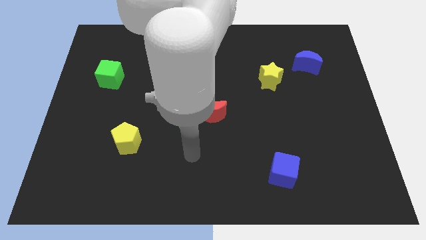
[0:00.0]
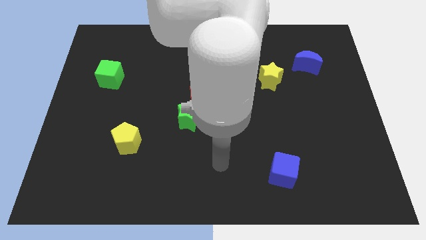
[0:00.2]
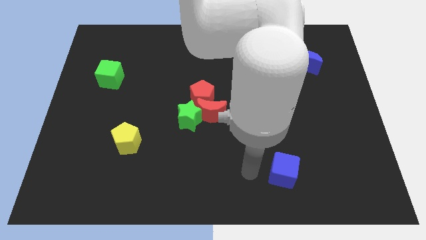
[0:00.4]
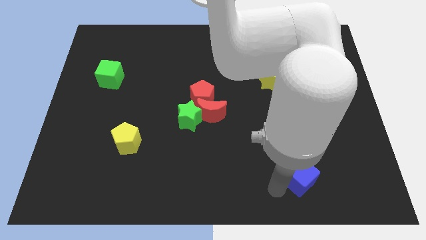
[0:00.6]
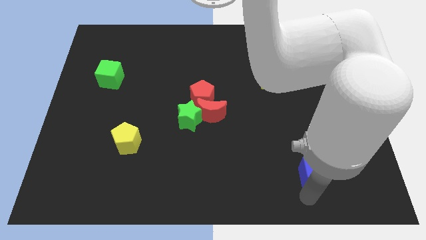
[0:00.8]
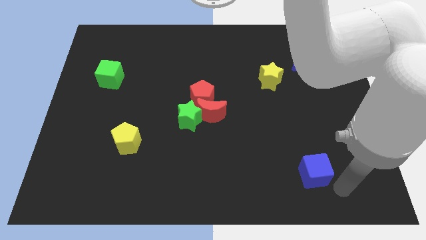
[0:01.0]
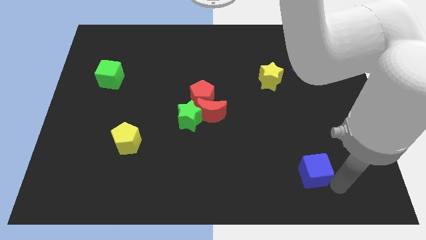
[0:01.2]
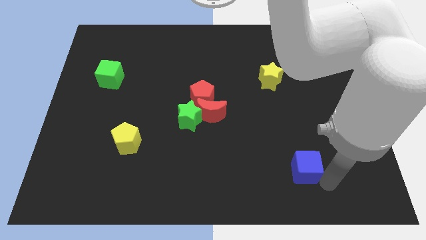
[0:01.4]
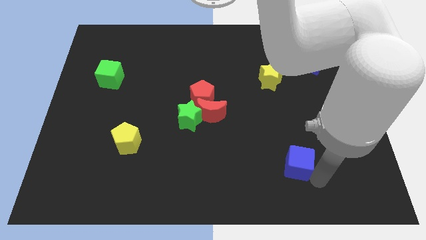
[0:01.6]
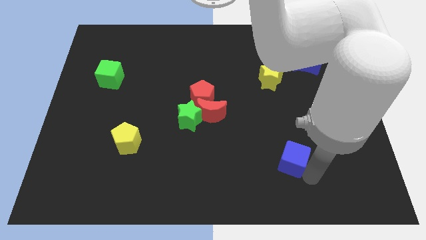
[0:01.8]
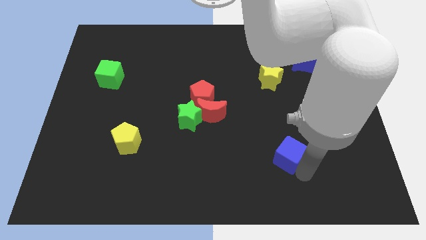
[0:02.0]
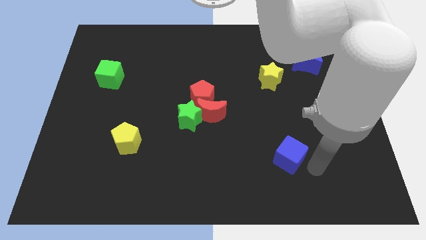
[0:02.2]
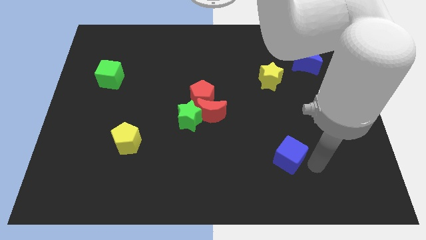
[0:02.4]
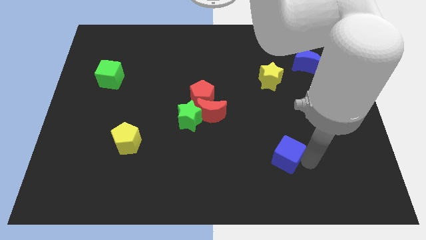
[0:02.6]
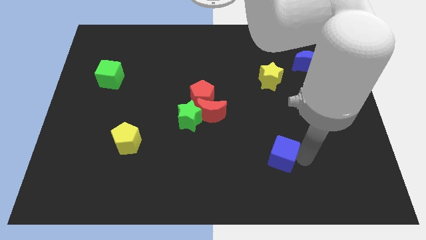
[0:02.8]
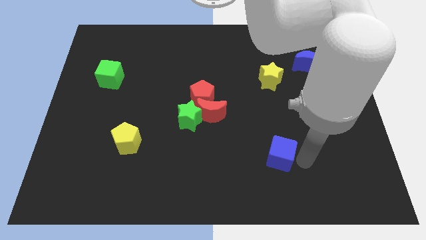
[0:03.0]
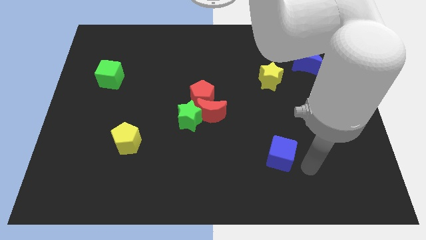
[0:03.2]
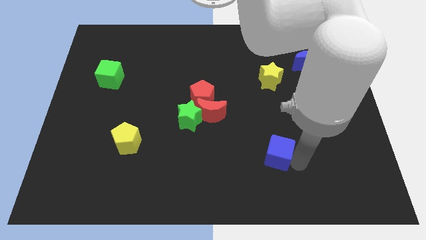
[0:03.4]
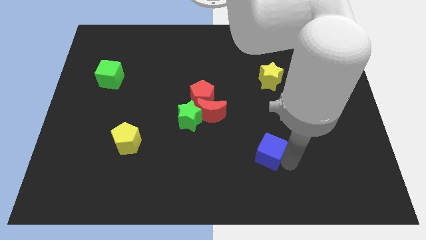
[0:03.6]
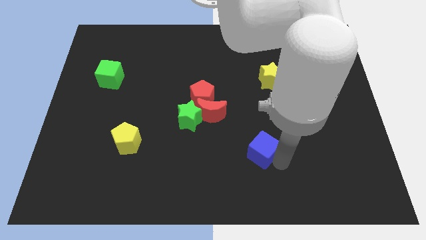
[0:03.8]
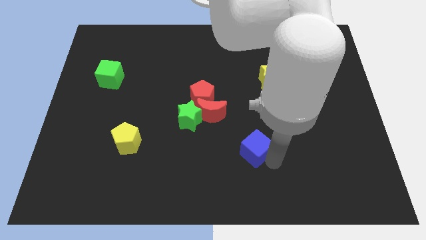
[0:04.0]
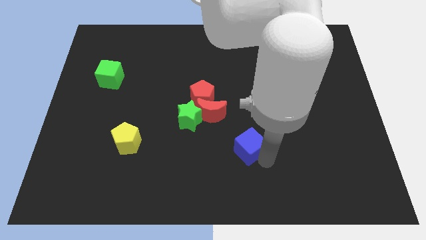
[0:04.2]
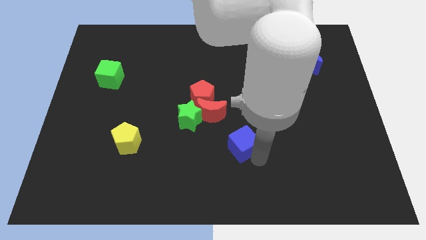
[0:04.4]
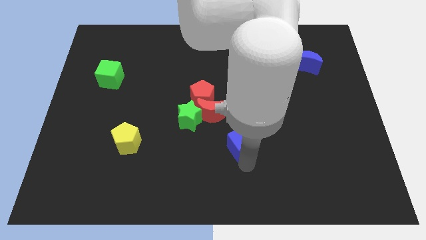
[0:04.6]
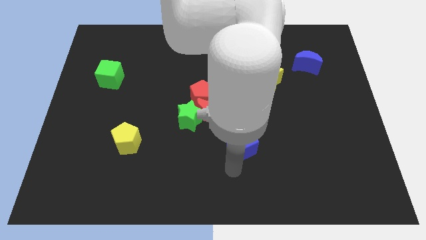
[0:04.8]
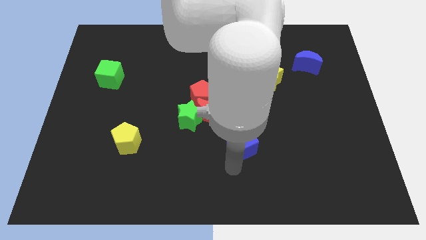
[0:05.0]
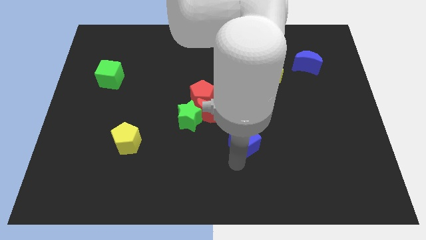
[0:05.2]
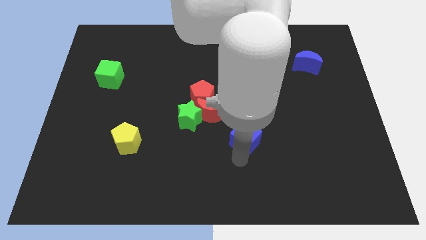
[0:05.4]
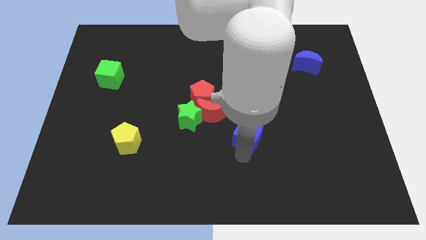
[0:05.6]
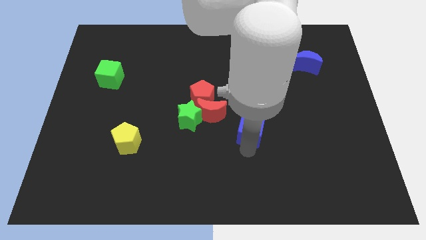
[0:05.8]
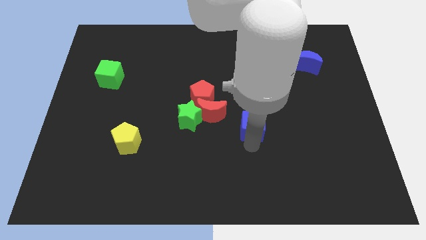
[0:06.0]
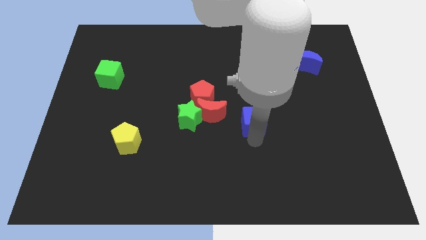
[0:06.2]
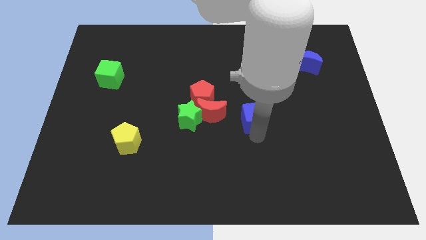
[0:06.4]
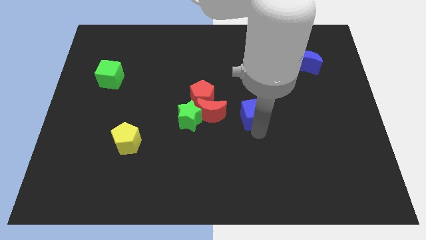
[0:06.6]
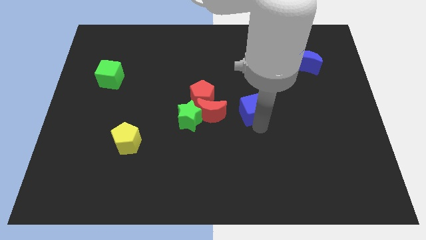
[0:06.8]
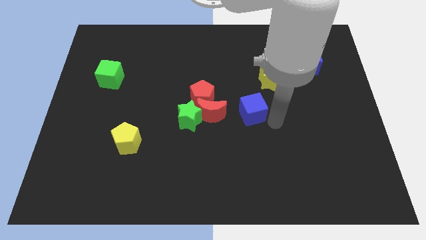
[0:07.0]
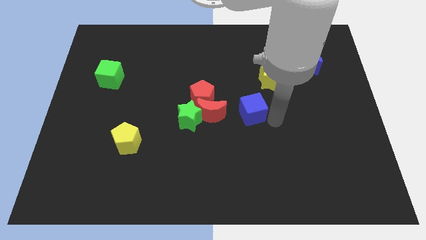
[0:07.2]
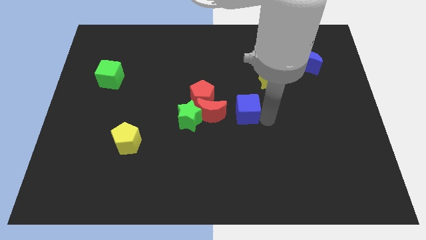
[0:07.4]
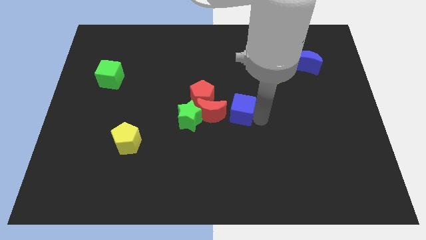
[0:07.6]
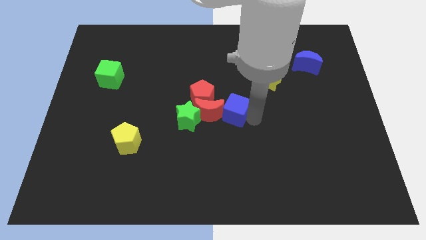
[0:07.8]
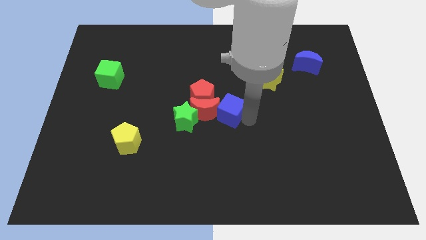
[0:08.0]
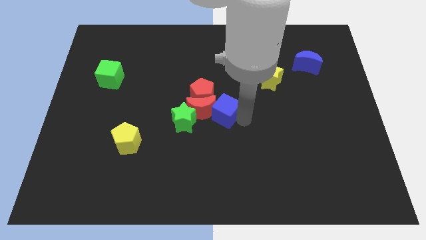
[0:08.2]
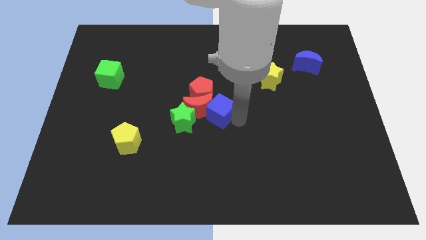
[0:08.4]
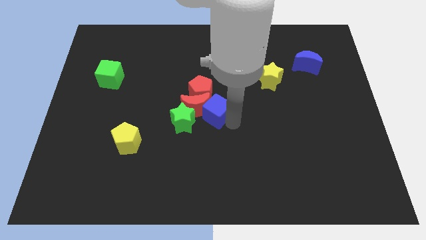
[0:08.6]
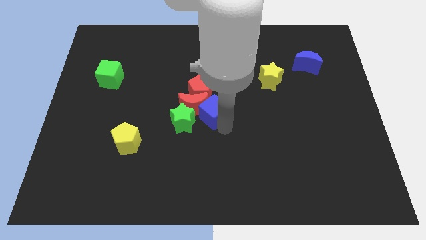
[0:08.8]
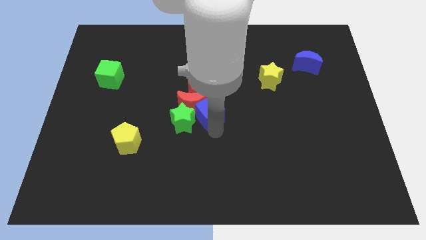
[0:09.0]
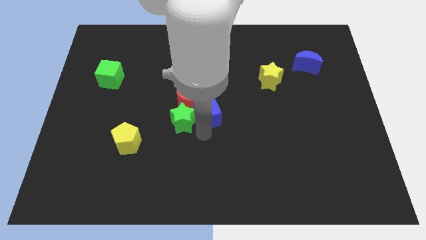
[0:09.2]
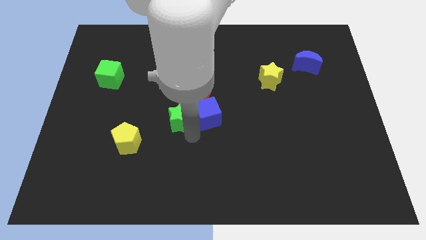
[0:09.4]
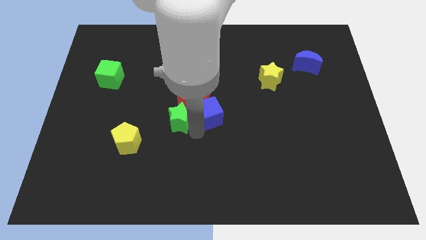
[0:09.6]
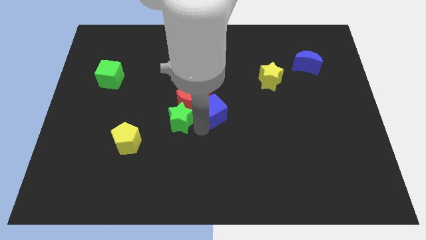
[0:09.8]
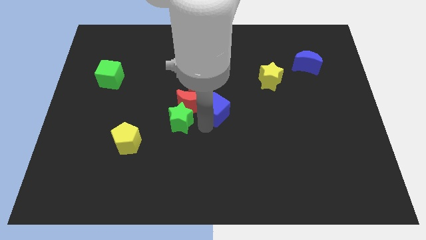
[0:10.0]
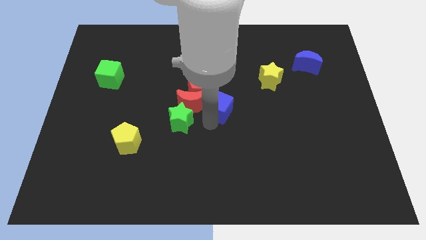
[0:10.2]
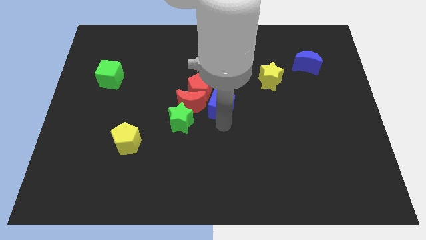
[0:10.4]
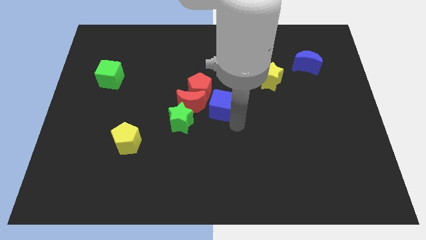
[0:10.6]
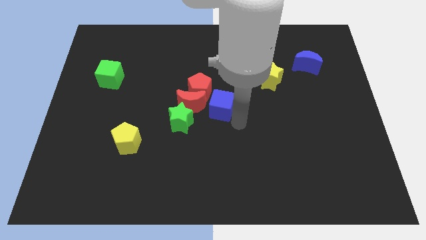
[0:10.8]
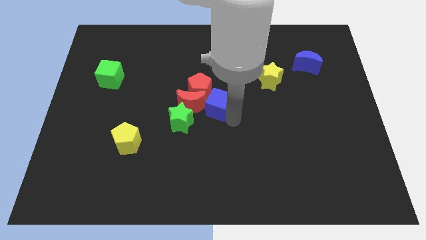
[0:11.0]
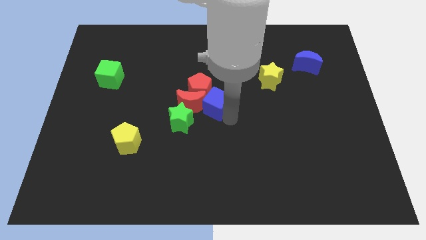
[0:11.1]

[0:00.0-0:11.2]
push the blue cube next to the red pentagon

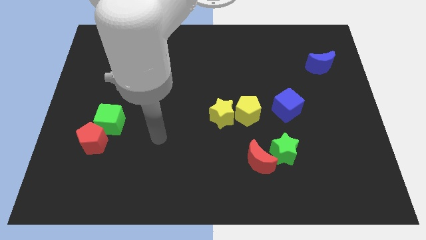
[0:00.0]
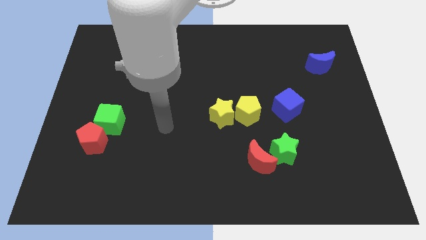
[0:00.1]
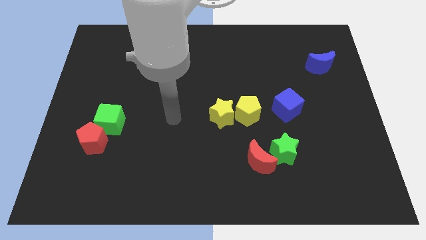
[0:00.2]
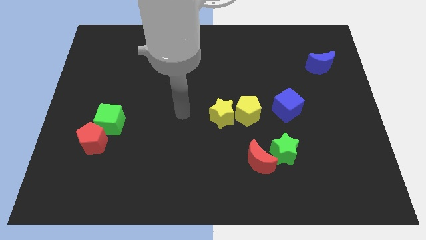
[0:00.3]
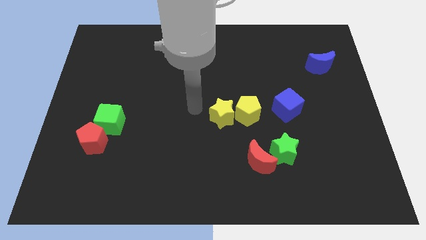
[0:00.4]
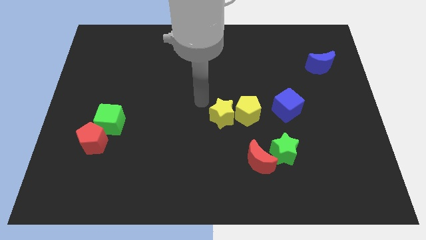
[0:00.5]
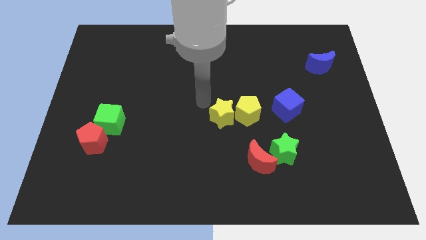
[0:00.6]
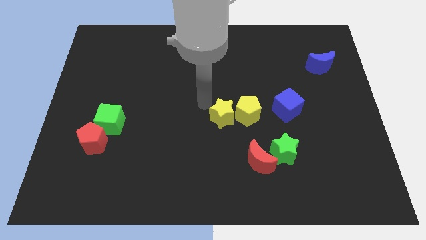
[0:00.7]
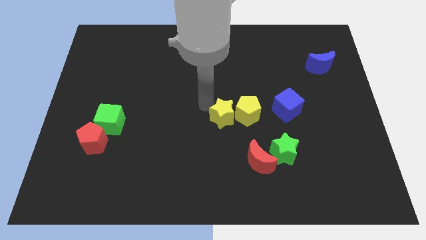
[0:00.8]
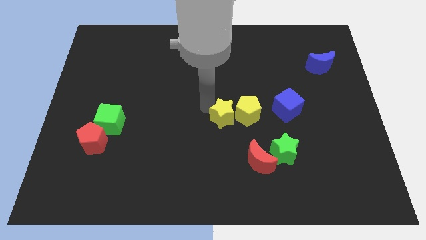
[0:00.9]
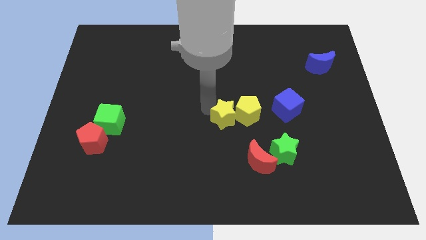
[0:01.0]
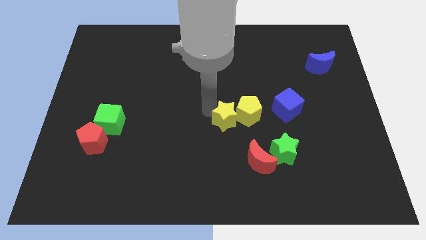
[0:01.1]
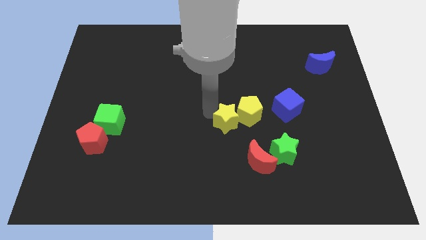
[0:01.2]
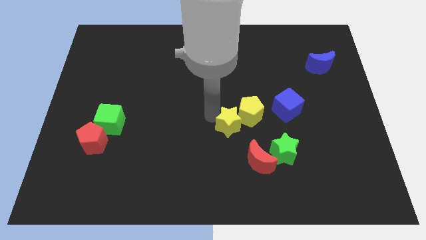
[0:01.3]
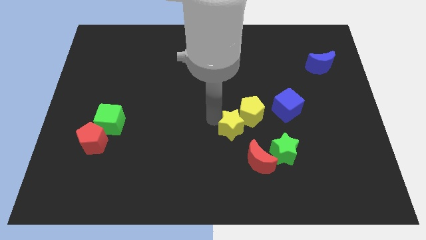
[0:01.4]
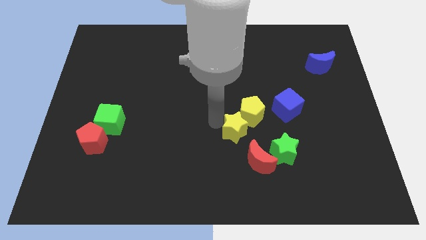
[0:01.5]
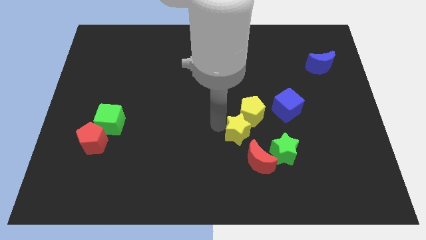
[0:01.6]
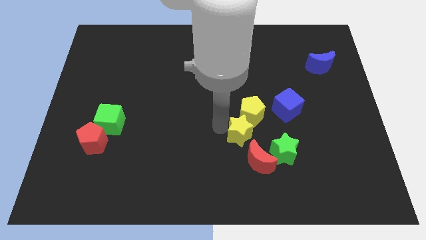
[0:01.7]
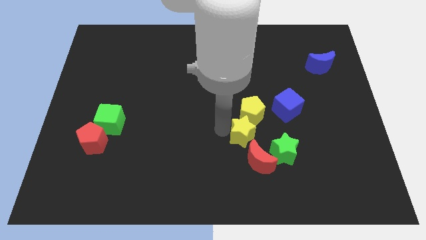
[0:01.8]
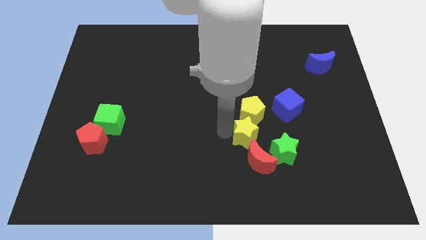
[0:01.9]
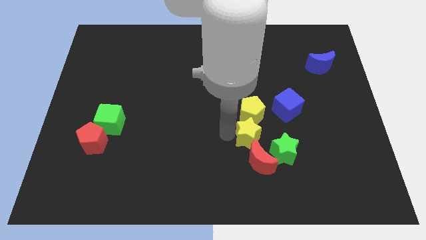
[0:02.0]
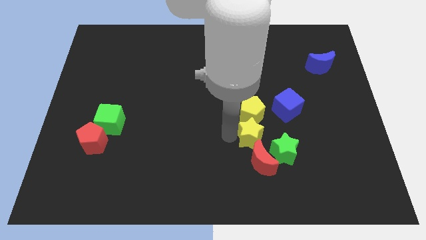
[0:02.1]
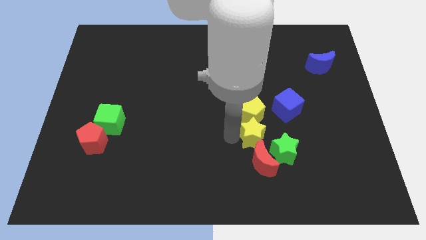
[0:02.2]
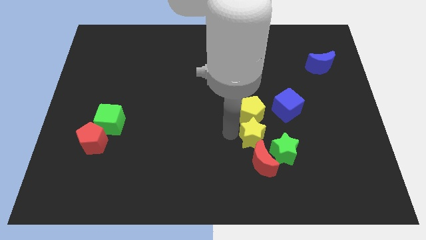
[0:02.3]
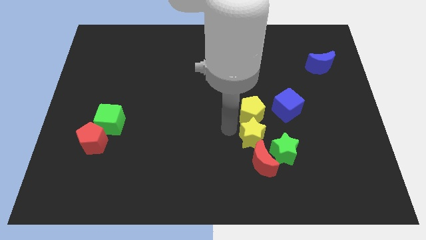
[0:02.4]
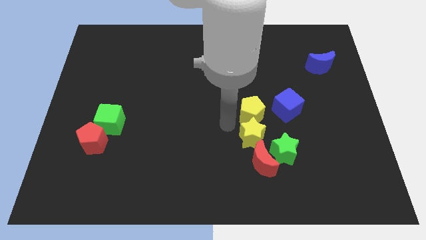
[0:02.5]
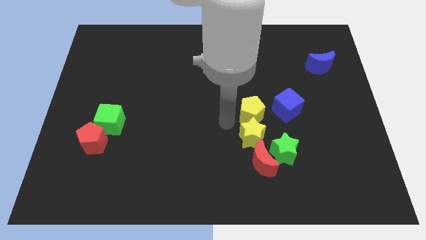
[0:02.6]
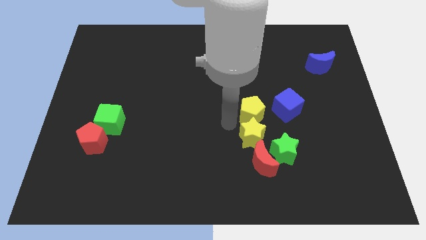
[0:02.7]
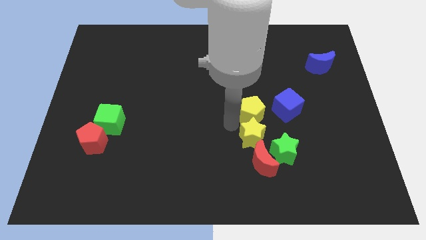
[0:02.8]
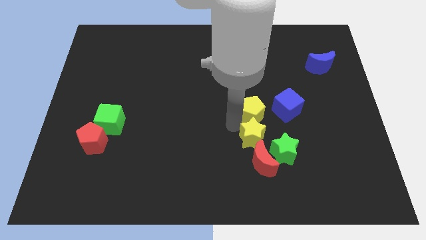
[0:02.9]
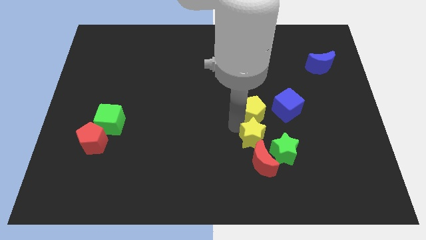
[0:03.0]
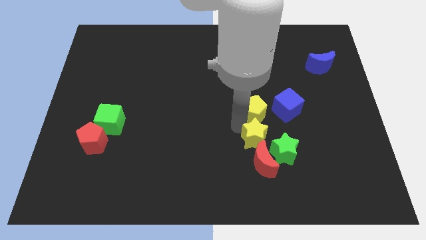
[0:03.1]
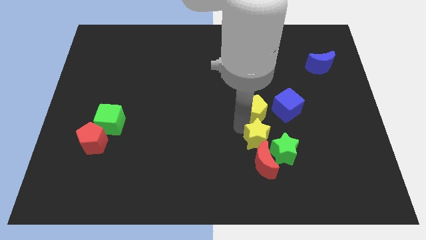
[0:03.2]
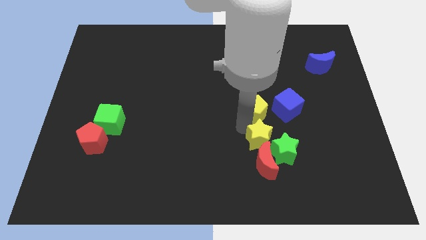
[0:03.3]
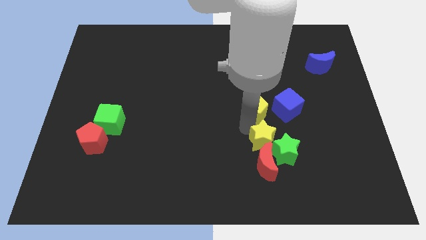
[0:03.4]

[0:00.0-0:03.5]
move the yellow star to the green star
